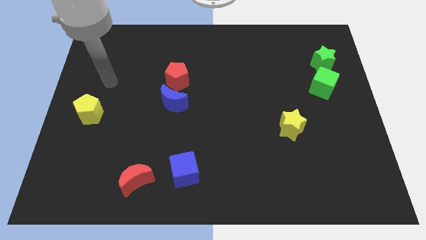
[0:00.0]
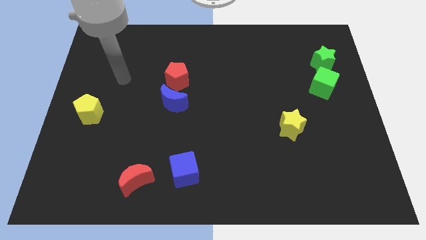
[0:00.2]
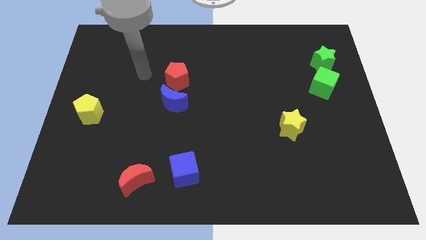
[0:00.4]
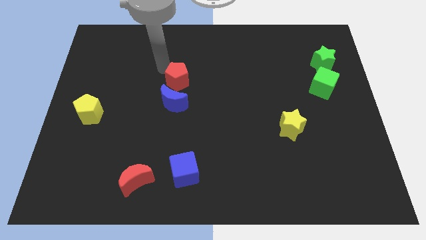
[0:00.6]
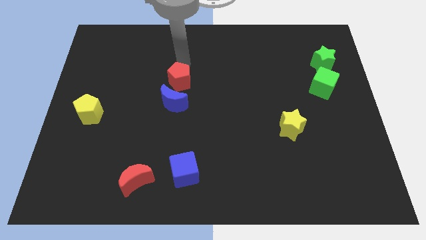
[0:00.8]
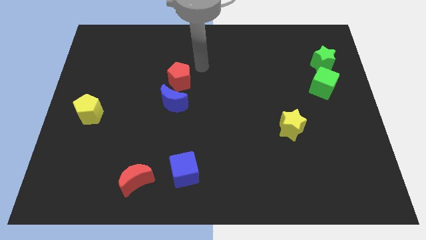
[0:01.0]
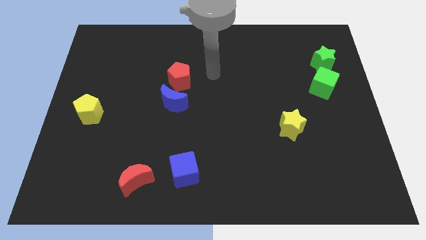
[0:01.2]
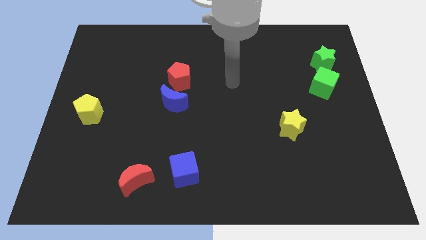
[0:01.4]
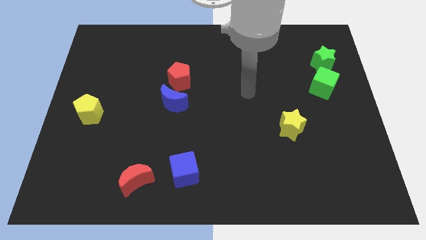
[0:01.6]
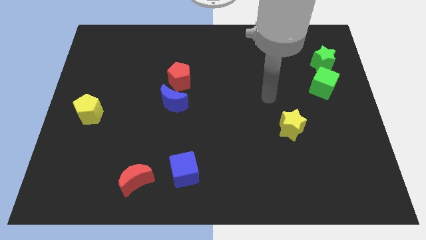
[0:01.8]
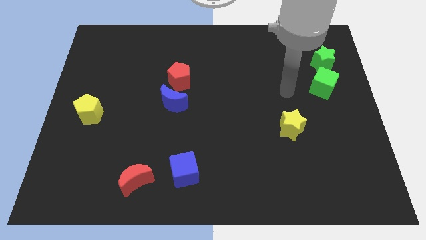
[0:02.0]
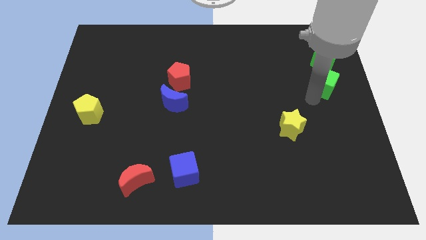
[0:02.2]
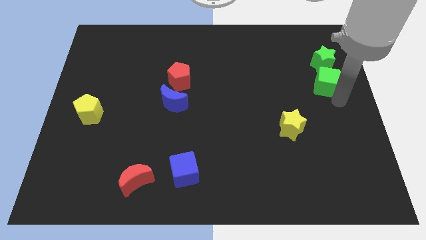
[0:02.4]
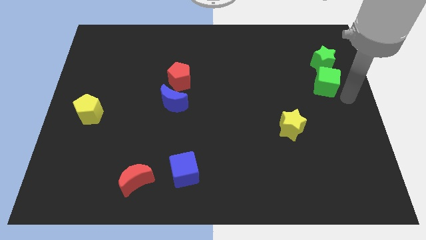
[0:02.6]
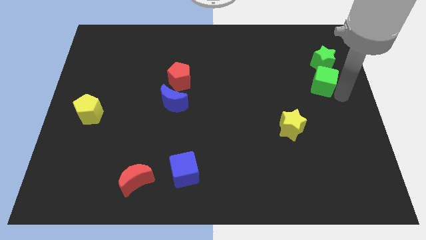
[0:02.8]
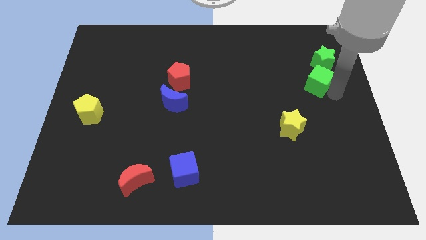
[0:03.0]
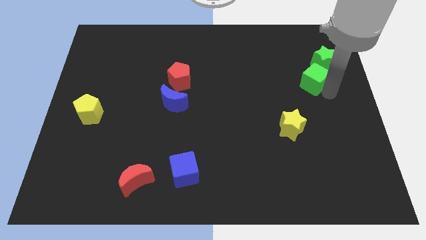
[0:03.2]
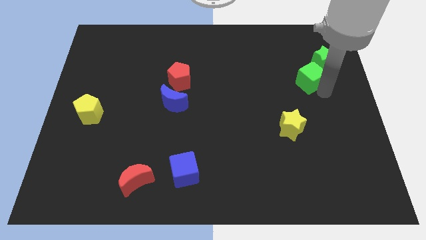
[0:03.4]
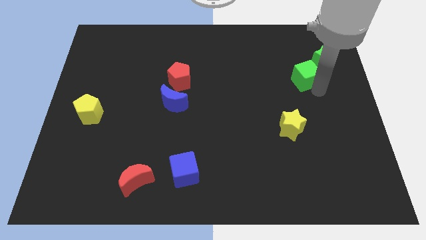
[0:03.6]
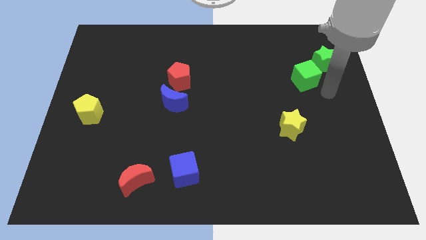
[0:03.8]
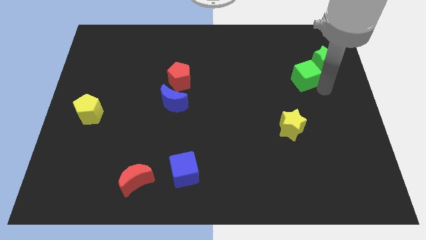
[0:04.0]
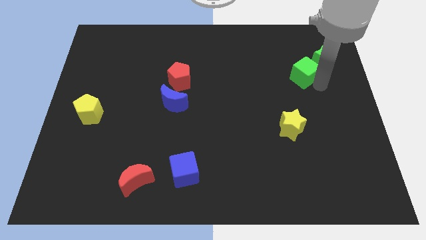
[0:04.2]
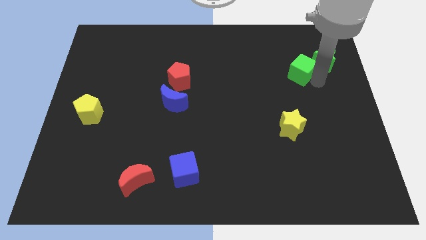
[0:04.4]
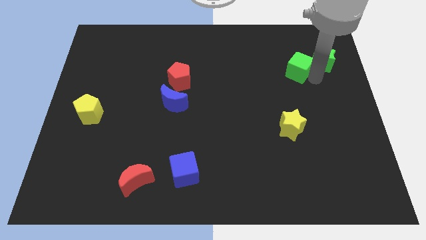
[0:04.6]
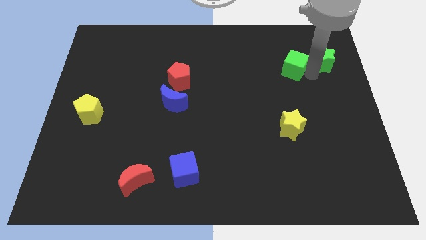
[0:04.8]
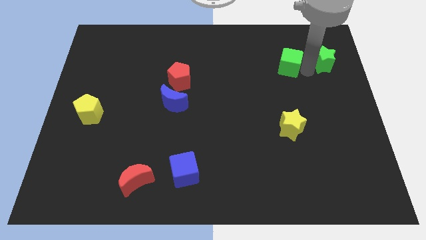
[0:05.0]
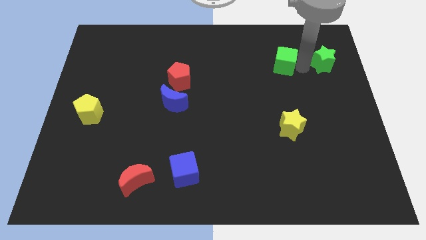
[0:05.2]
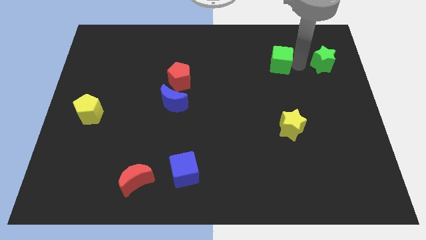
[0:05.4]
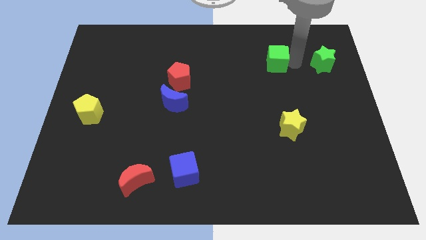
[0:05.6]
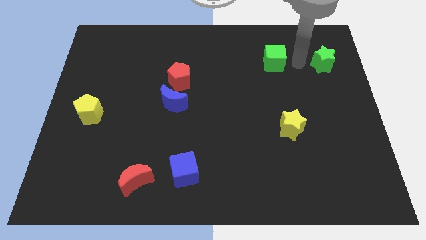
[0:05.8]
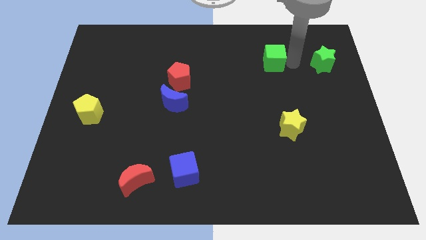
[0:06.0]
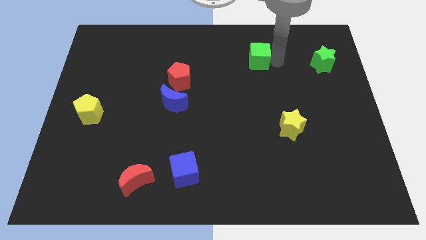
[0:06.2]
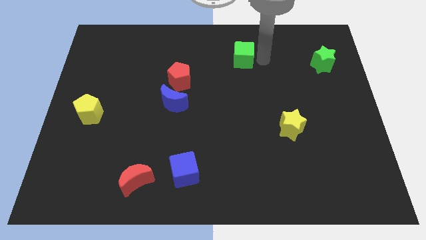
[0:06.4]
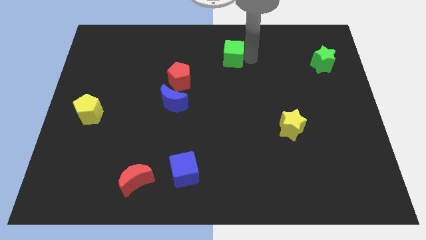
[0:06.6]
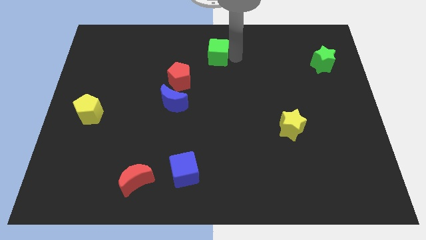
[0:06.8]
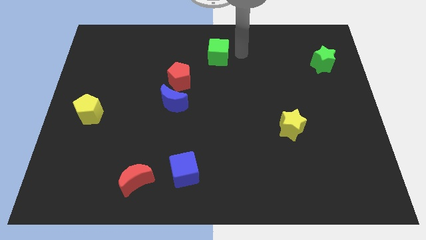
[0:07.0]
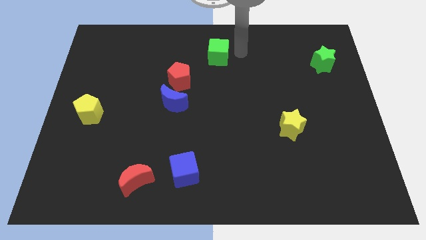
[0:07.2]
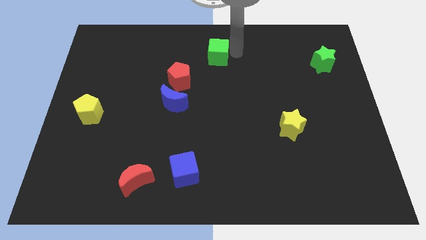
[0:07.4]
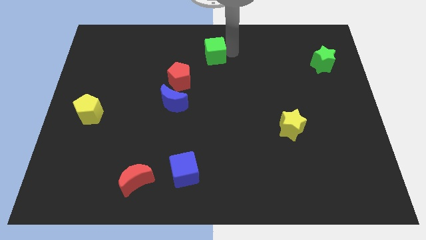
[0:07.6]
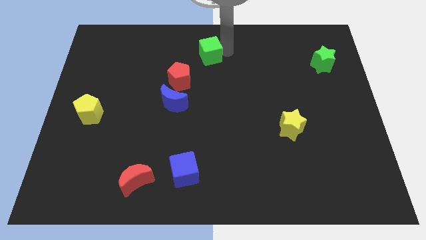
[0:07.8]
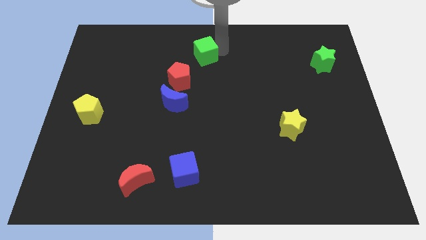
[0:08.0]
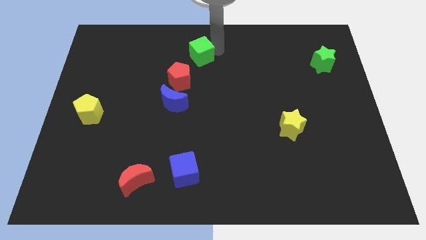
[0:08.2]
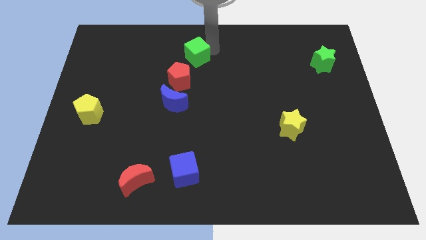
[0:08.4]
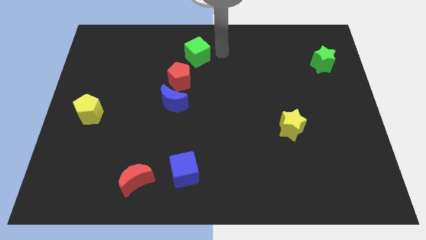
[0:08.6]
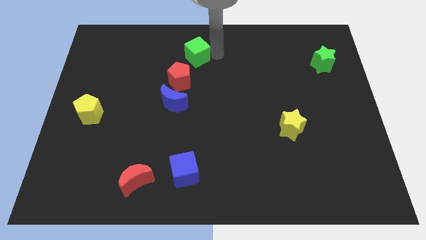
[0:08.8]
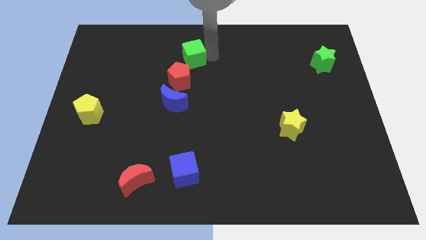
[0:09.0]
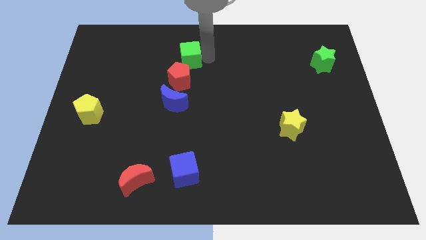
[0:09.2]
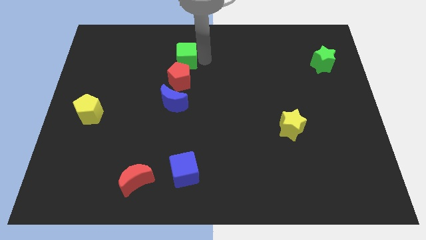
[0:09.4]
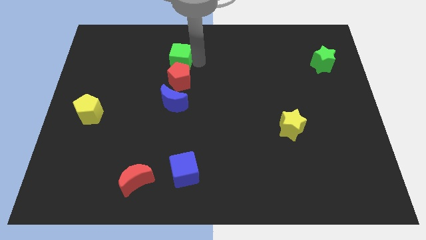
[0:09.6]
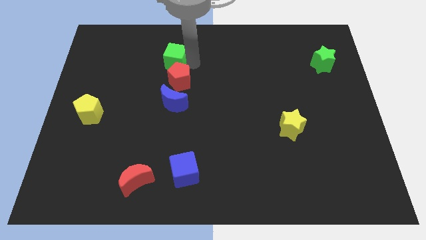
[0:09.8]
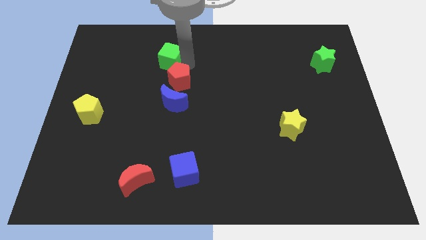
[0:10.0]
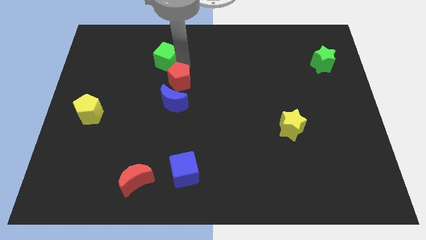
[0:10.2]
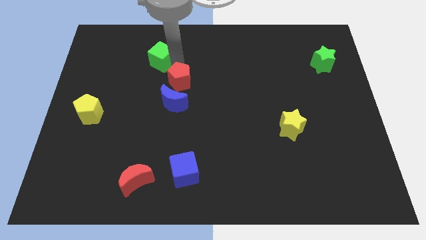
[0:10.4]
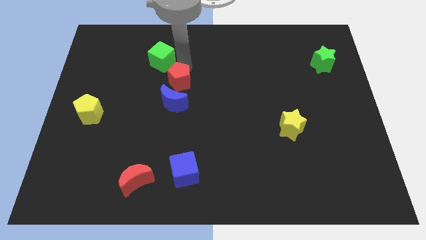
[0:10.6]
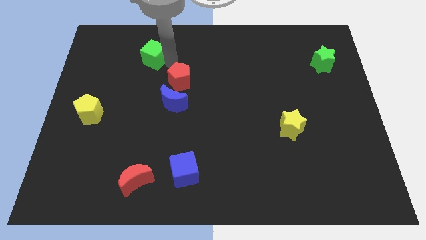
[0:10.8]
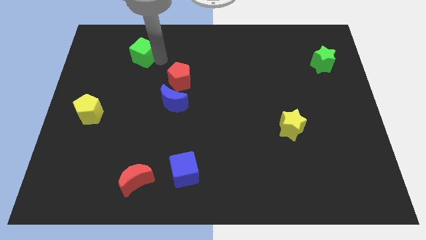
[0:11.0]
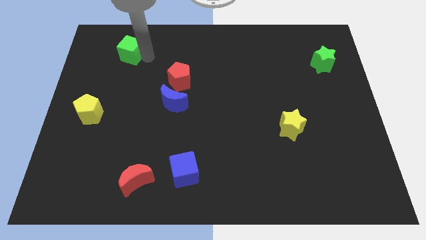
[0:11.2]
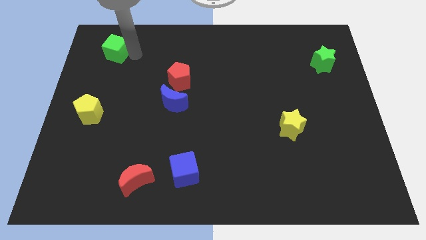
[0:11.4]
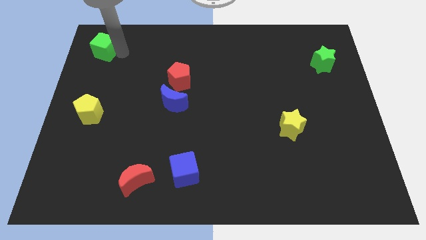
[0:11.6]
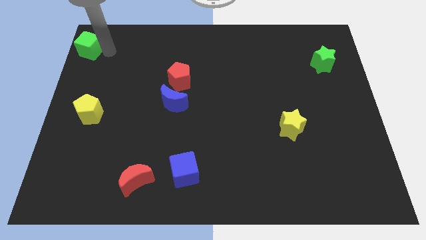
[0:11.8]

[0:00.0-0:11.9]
put the green cube to the upper left corner

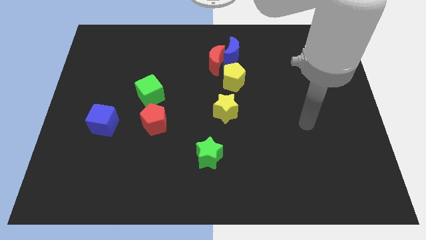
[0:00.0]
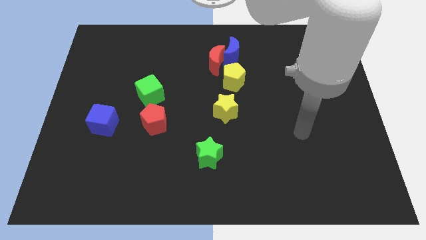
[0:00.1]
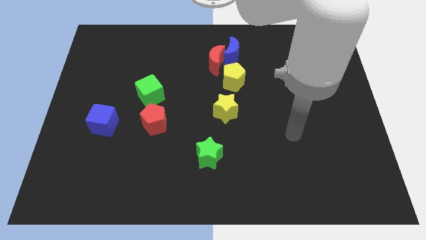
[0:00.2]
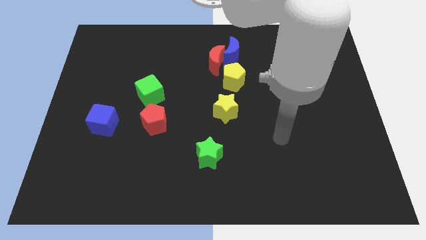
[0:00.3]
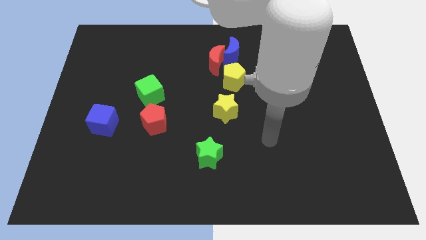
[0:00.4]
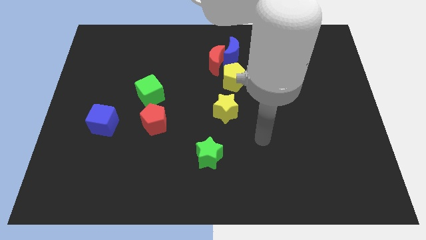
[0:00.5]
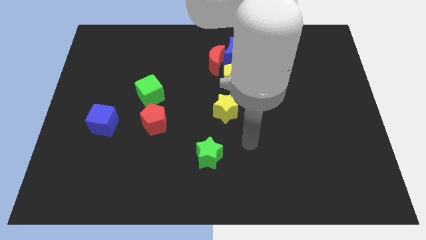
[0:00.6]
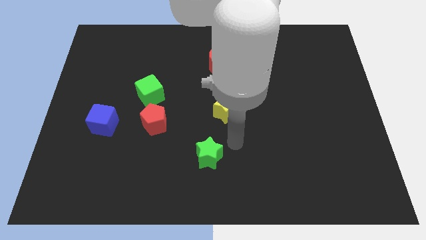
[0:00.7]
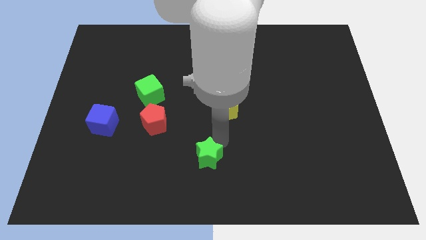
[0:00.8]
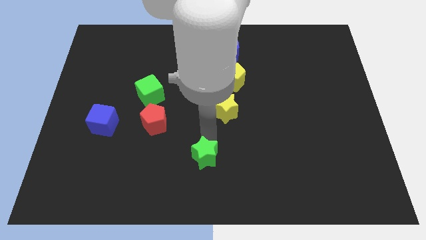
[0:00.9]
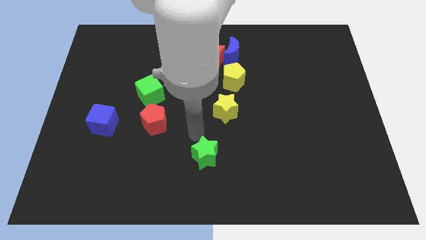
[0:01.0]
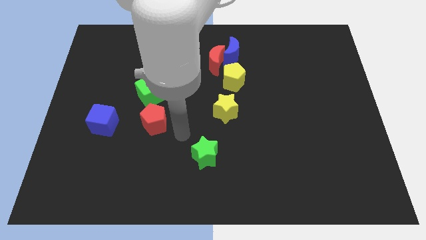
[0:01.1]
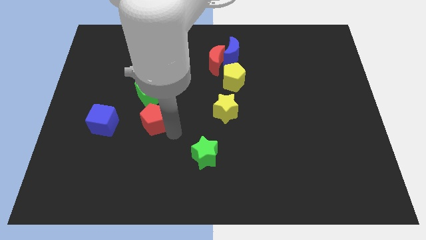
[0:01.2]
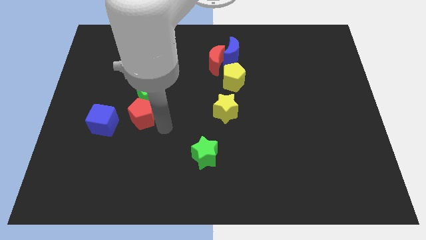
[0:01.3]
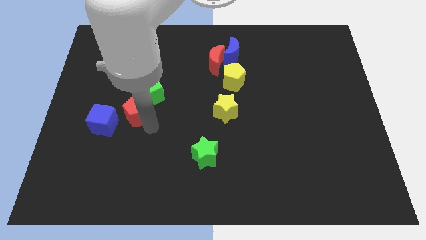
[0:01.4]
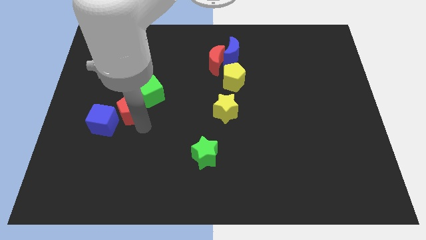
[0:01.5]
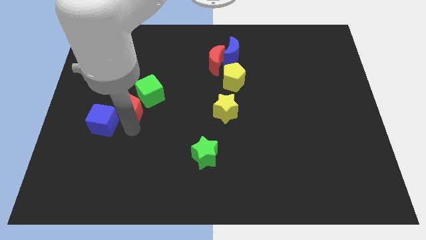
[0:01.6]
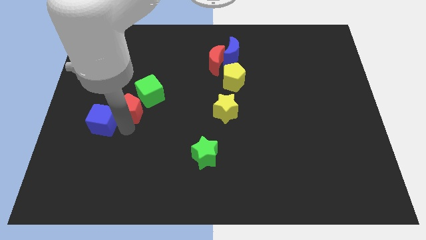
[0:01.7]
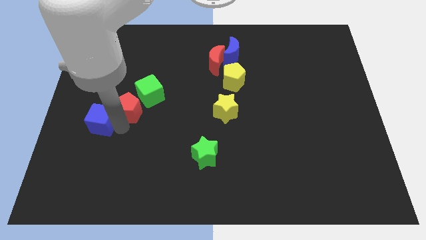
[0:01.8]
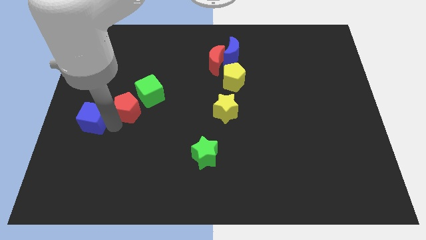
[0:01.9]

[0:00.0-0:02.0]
slide the blue cube to the center left
